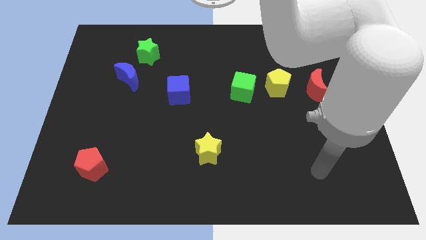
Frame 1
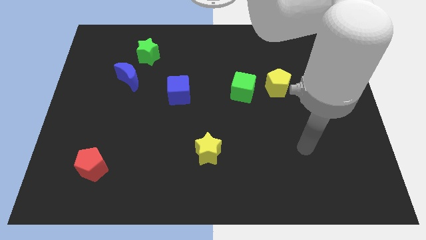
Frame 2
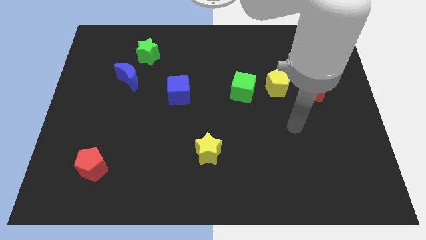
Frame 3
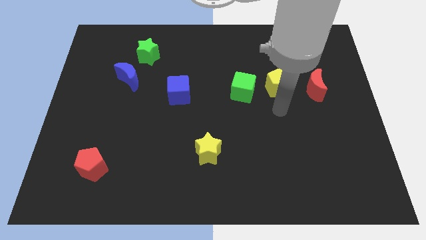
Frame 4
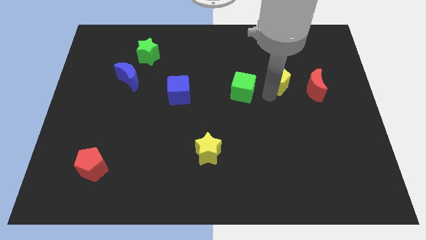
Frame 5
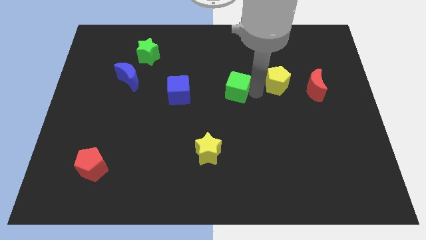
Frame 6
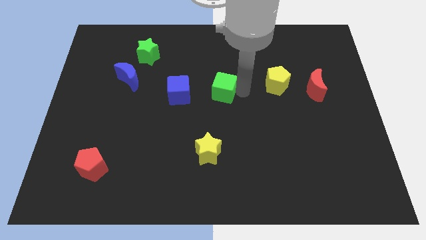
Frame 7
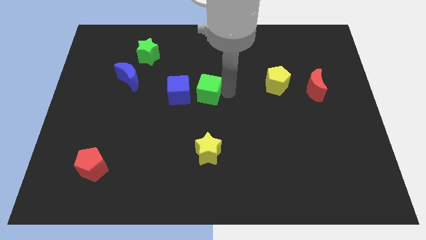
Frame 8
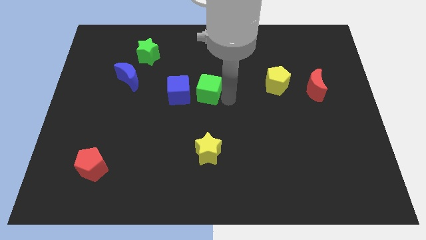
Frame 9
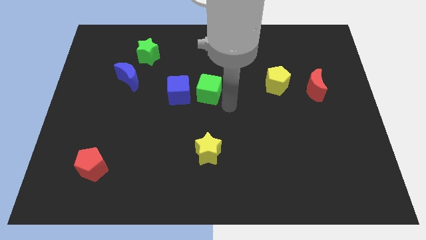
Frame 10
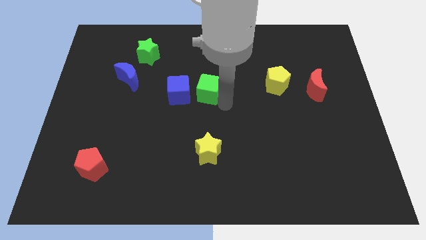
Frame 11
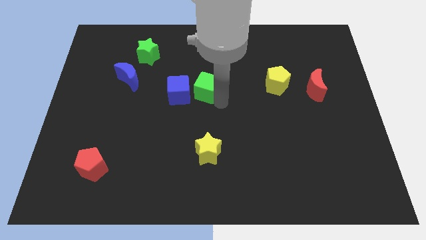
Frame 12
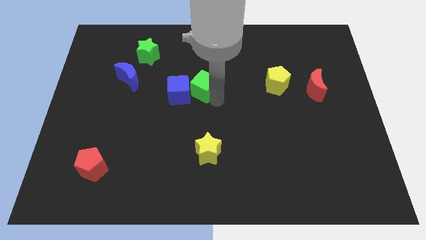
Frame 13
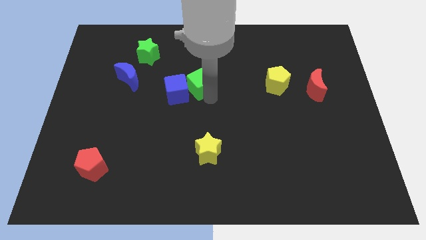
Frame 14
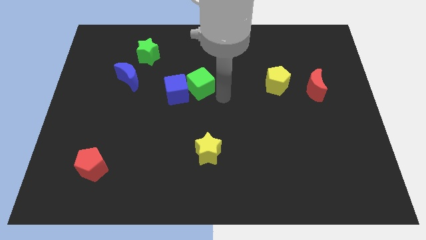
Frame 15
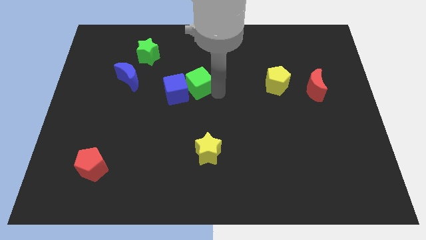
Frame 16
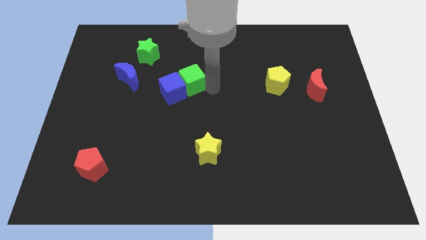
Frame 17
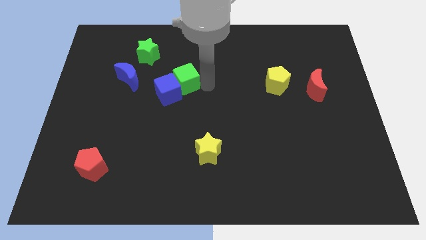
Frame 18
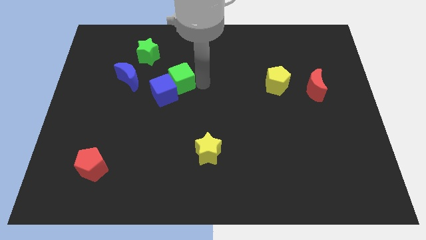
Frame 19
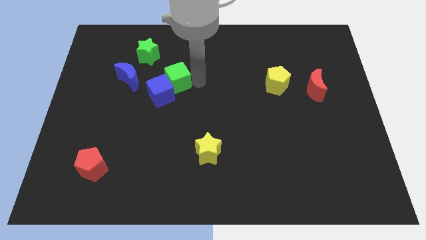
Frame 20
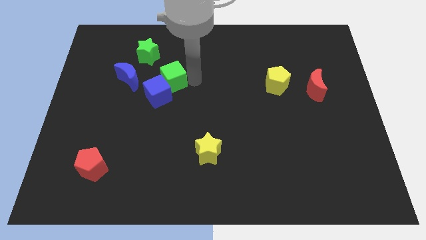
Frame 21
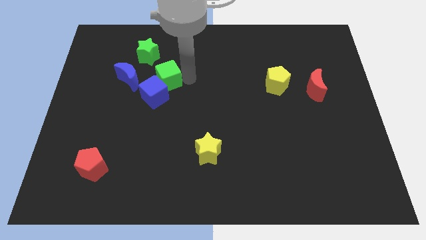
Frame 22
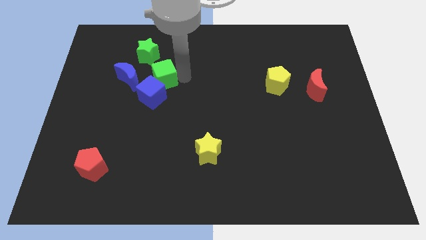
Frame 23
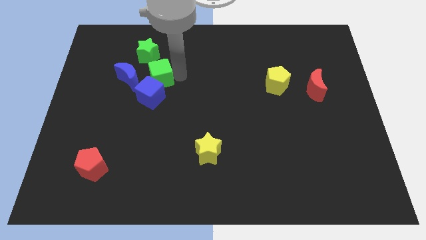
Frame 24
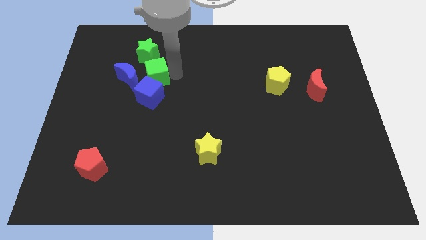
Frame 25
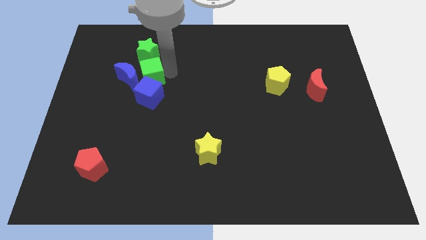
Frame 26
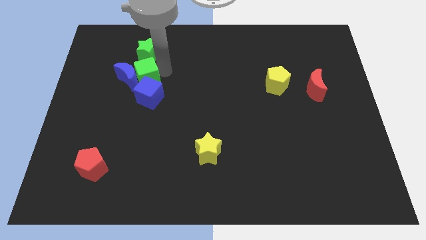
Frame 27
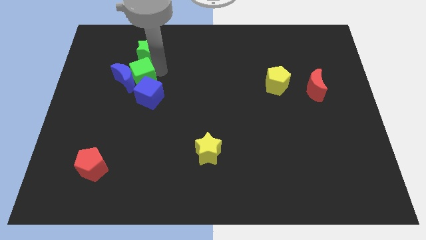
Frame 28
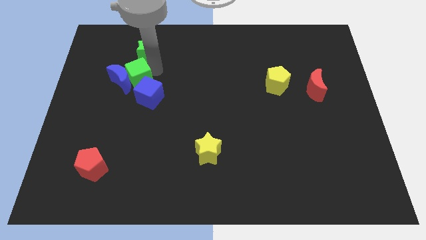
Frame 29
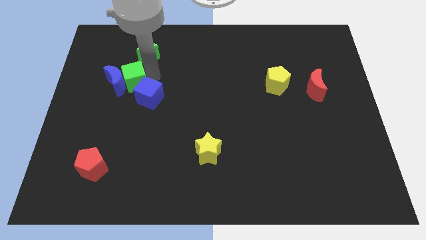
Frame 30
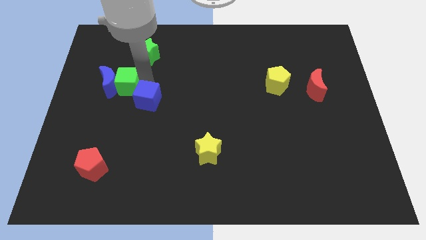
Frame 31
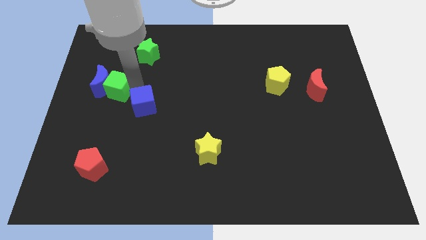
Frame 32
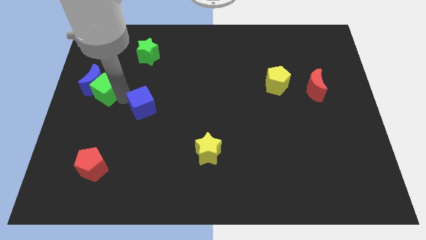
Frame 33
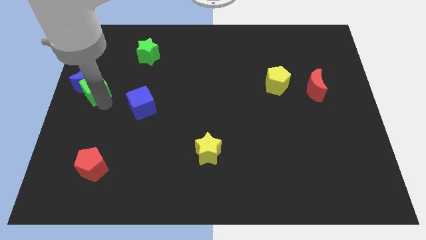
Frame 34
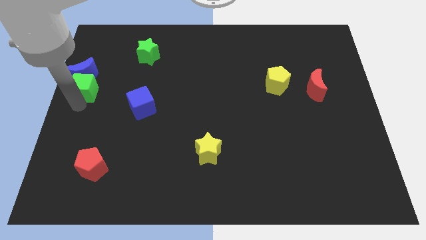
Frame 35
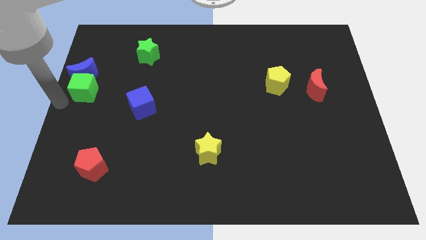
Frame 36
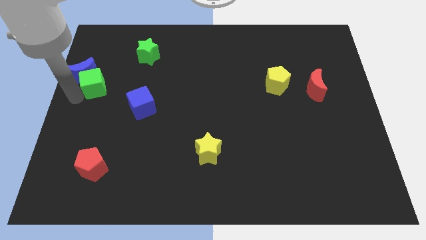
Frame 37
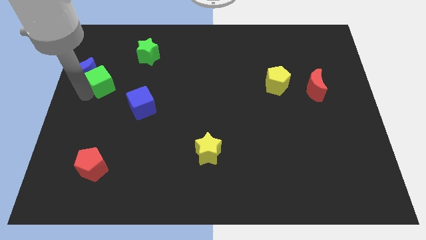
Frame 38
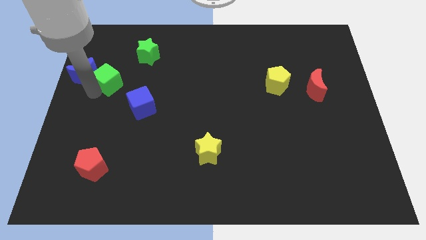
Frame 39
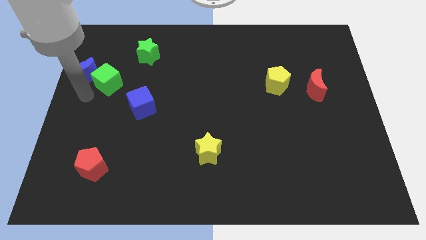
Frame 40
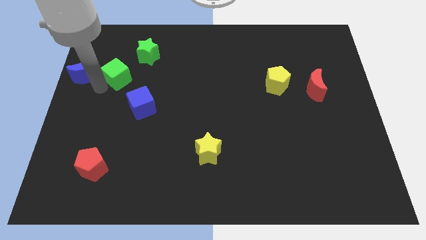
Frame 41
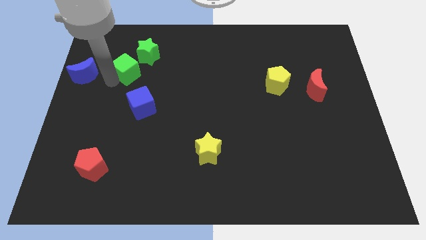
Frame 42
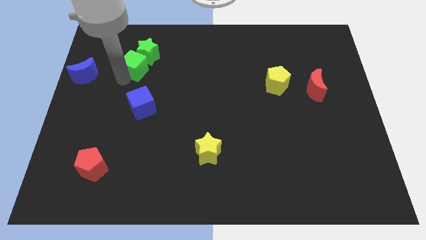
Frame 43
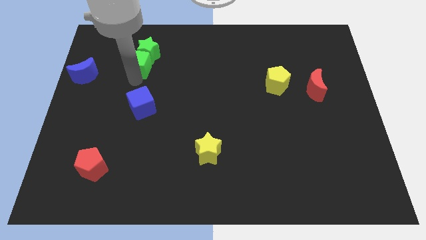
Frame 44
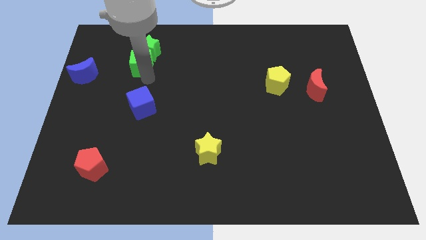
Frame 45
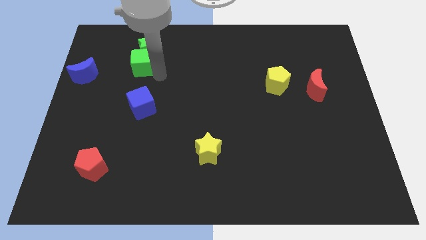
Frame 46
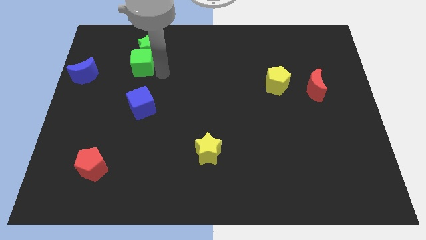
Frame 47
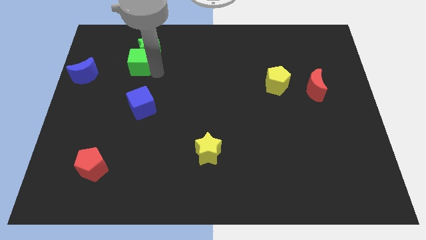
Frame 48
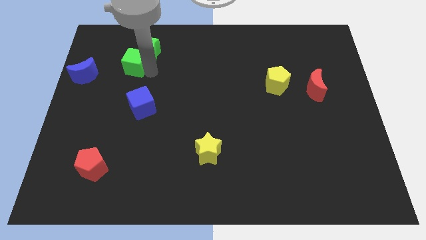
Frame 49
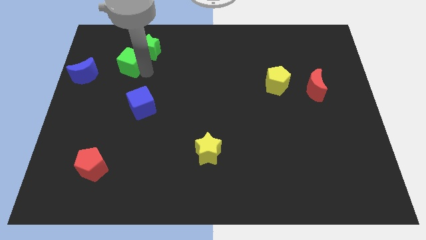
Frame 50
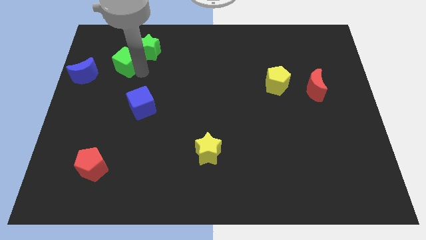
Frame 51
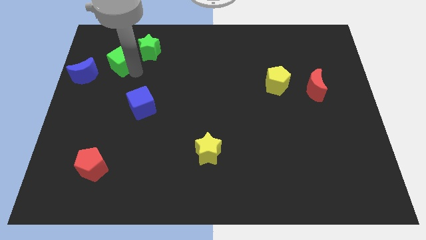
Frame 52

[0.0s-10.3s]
move the green cube left of the green star

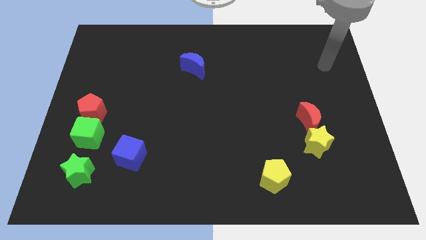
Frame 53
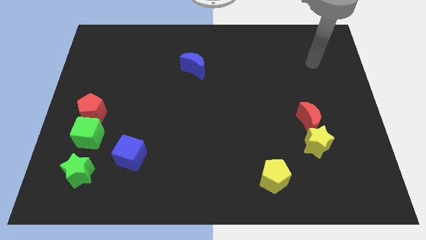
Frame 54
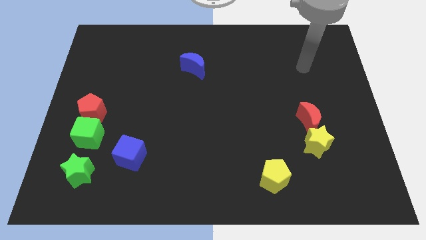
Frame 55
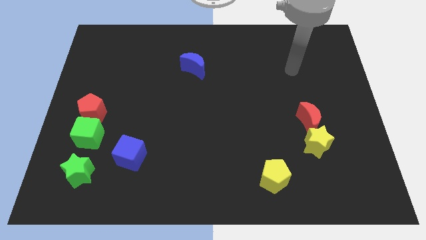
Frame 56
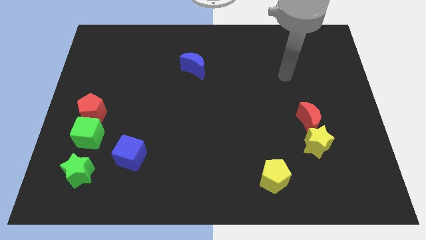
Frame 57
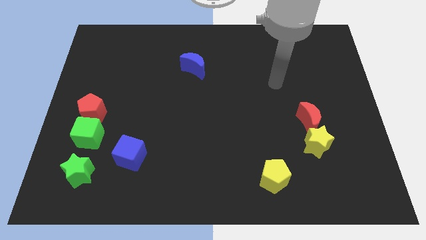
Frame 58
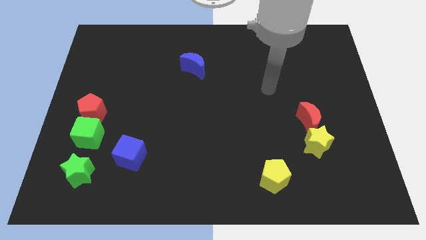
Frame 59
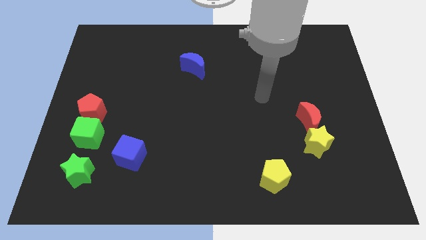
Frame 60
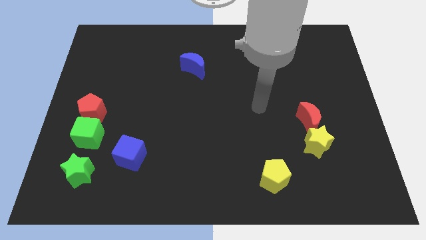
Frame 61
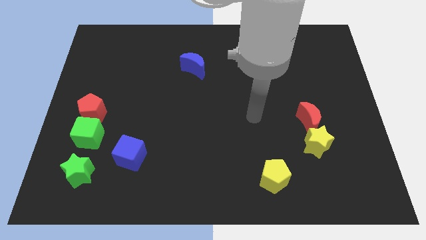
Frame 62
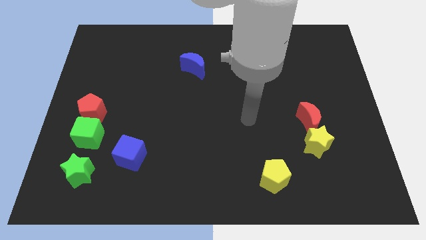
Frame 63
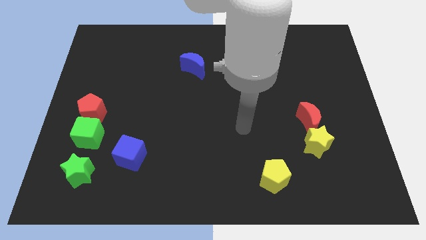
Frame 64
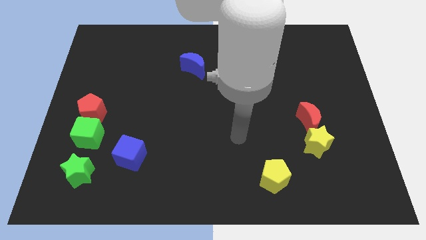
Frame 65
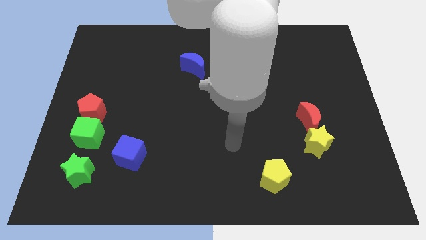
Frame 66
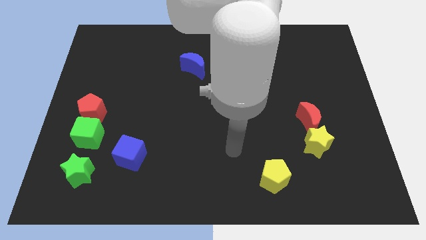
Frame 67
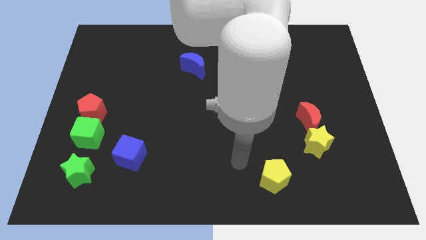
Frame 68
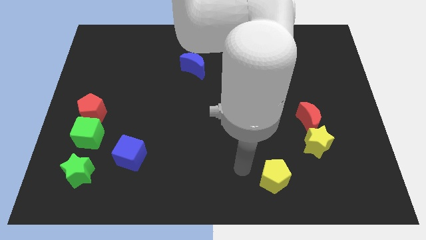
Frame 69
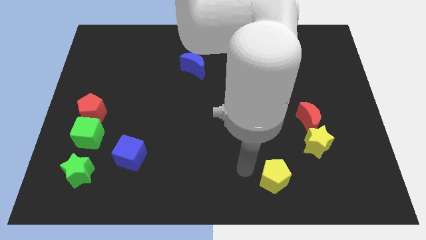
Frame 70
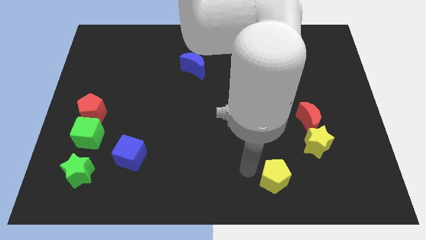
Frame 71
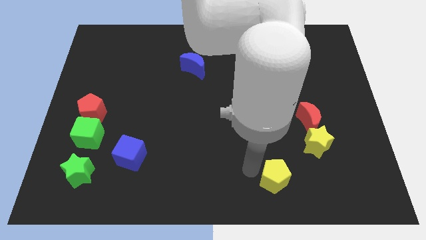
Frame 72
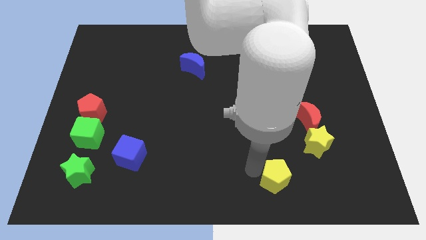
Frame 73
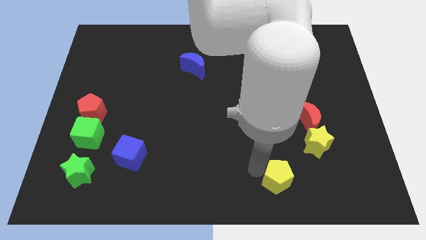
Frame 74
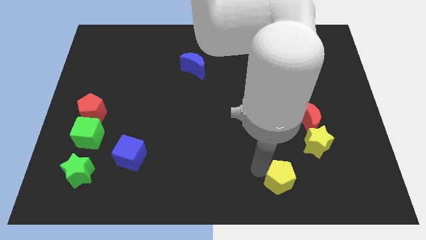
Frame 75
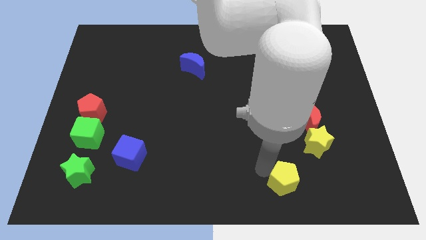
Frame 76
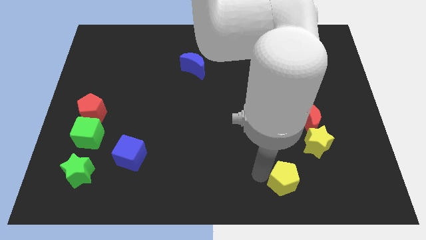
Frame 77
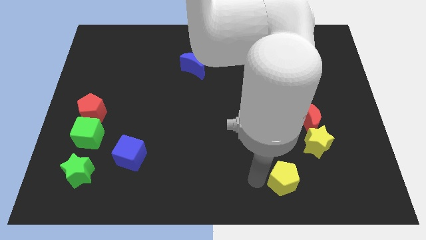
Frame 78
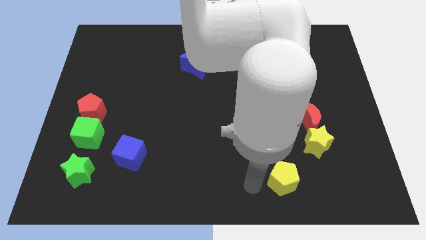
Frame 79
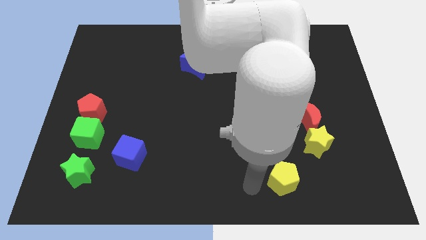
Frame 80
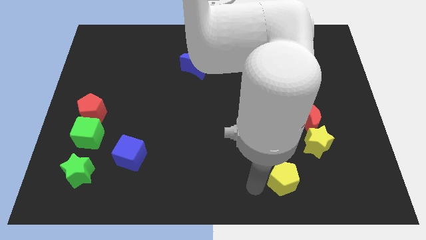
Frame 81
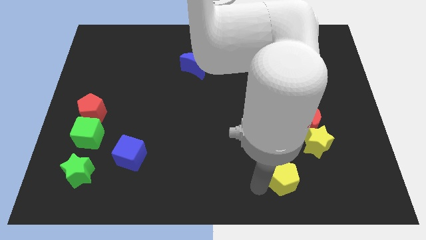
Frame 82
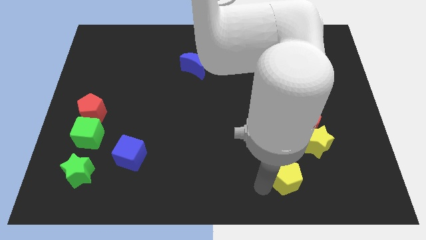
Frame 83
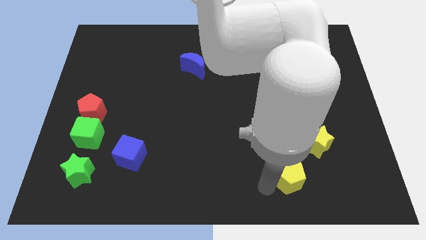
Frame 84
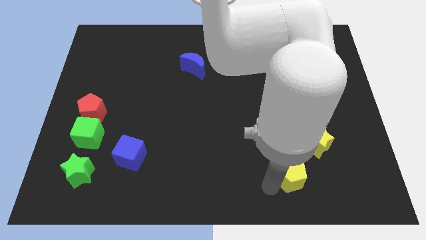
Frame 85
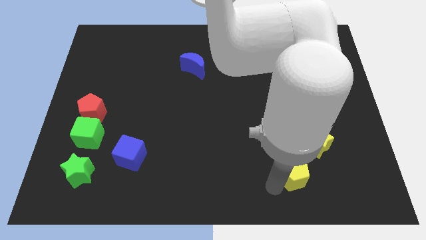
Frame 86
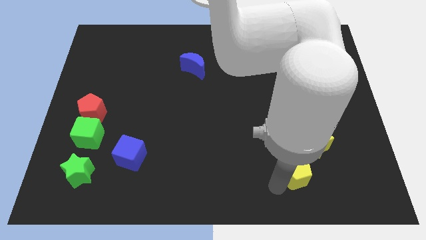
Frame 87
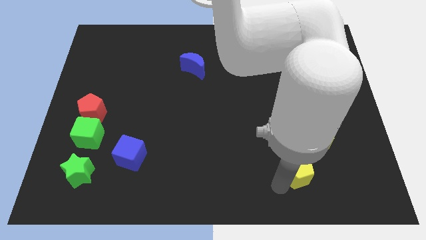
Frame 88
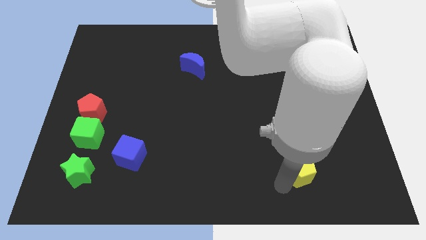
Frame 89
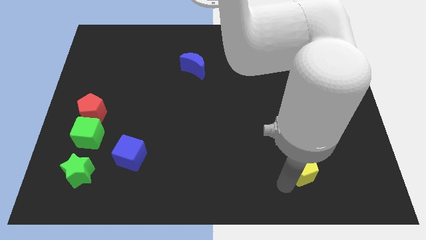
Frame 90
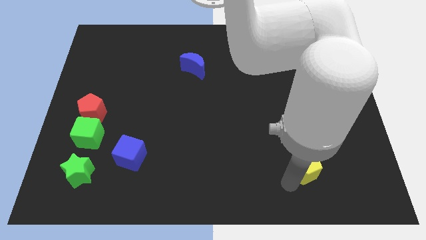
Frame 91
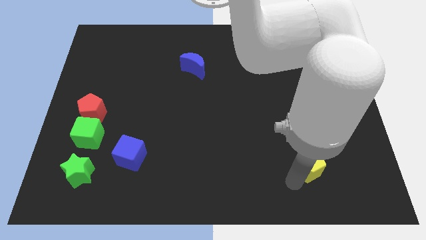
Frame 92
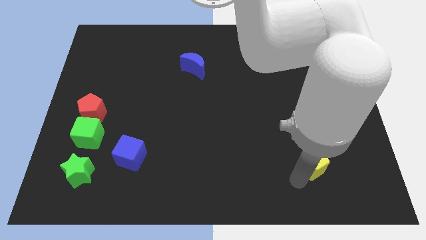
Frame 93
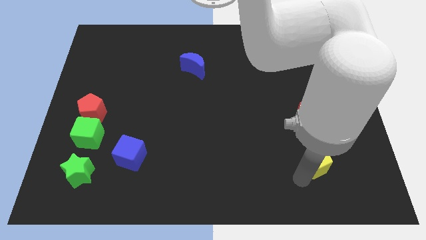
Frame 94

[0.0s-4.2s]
slide the yellow pentagon to the bottom right side of the yellow star
